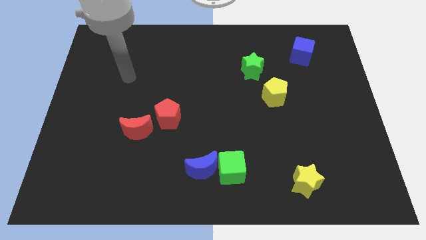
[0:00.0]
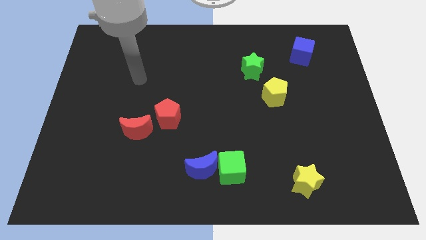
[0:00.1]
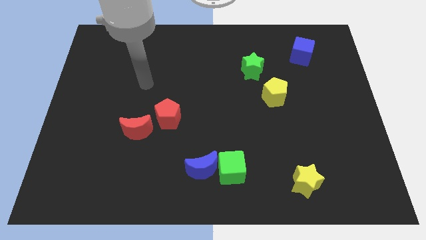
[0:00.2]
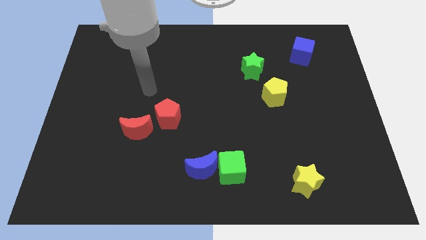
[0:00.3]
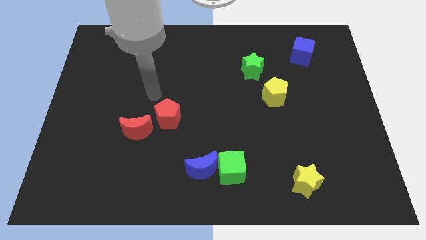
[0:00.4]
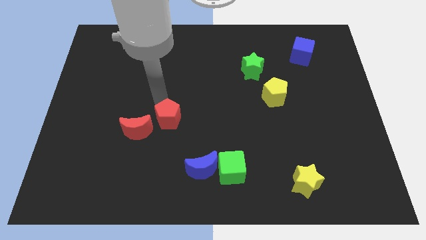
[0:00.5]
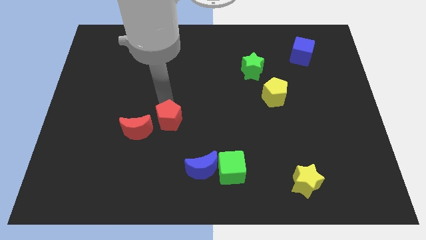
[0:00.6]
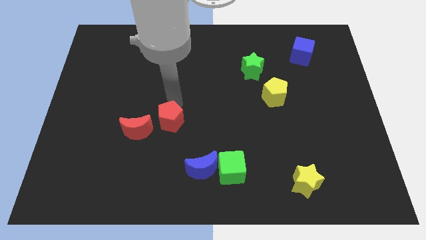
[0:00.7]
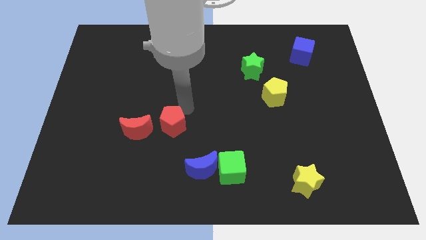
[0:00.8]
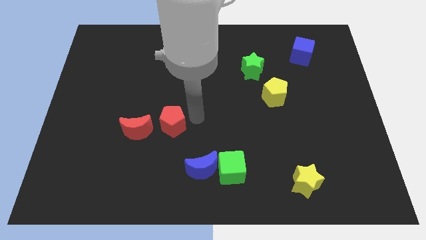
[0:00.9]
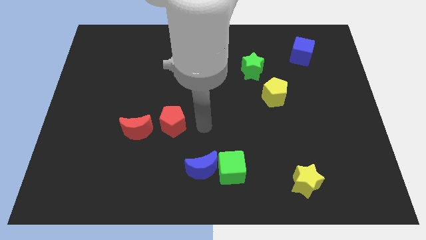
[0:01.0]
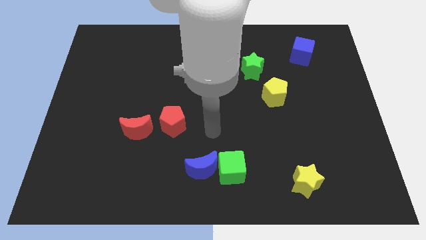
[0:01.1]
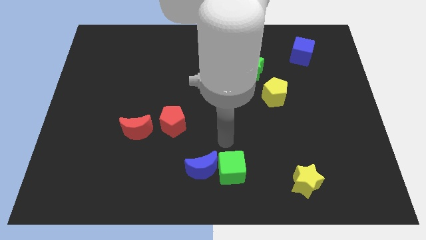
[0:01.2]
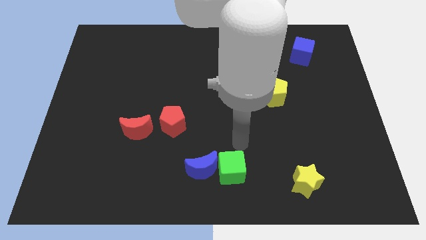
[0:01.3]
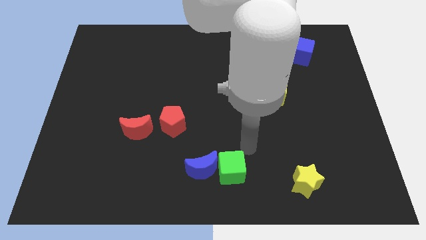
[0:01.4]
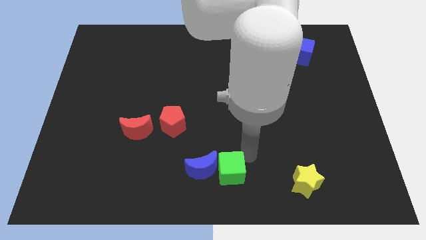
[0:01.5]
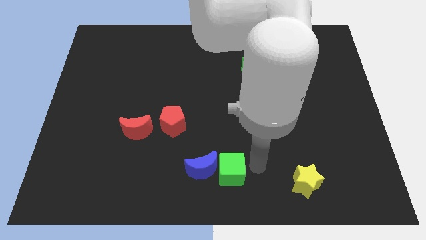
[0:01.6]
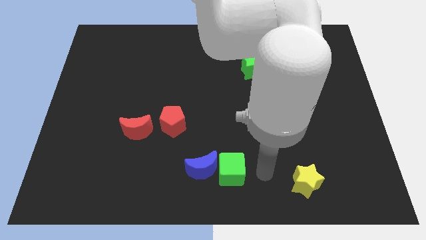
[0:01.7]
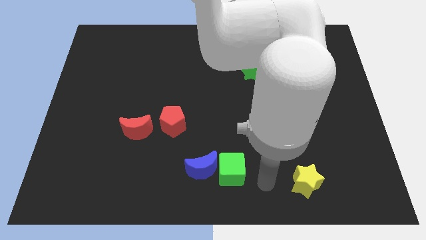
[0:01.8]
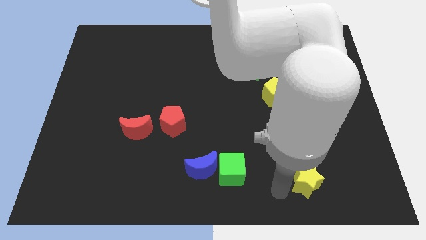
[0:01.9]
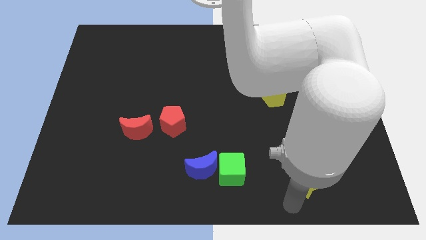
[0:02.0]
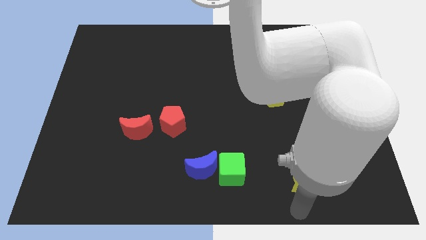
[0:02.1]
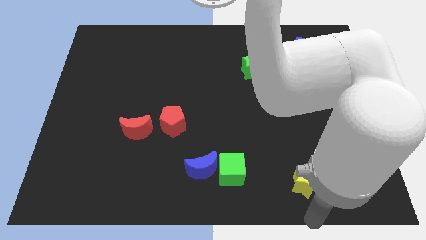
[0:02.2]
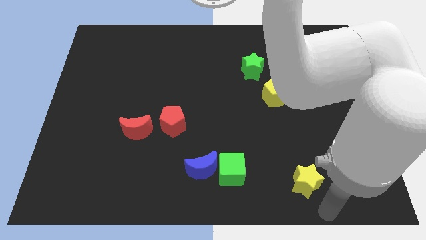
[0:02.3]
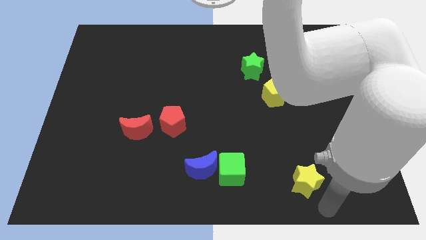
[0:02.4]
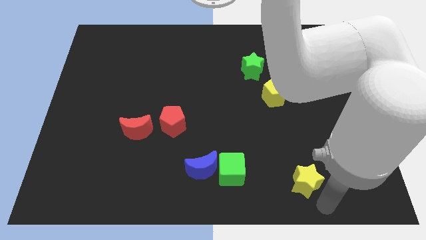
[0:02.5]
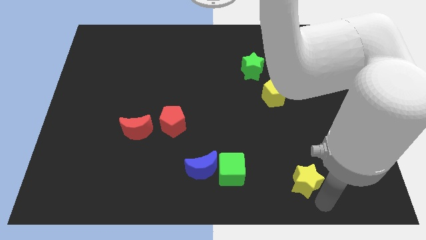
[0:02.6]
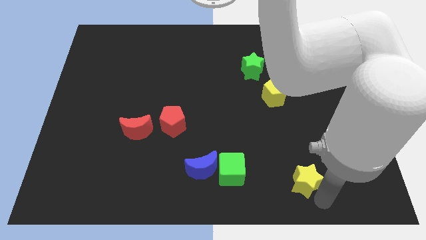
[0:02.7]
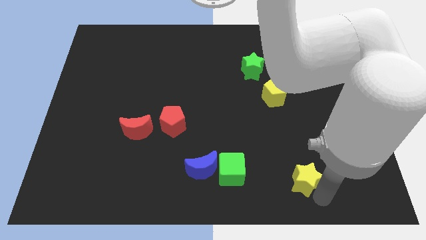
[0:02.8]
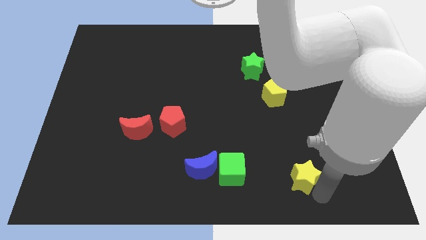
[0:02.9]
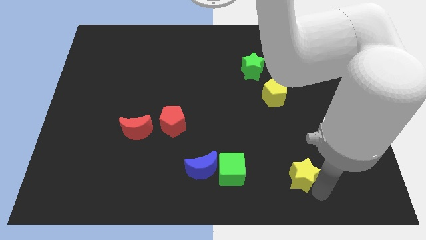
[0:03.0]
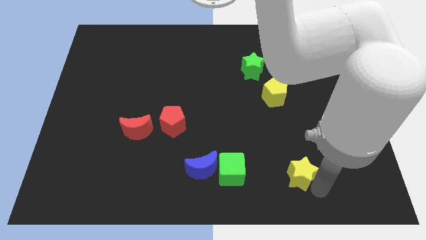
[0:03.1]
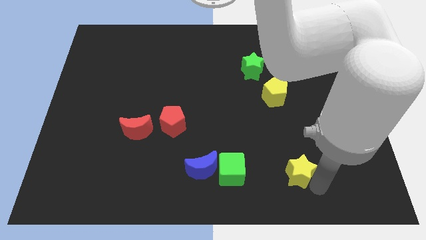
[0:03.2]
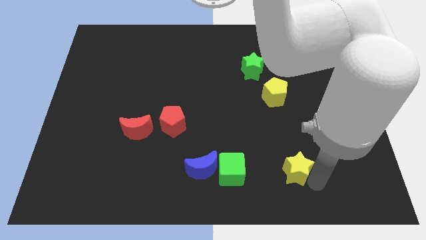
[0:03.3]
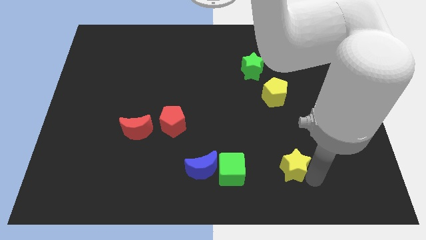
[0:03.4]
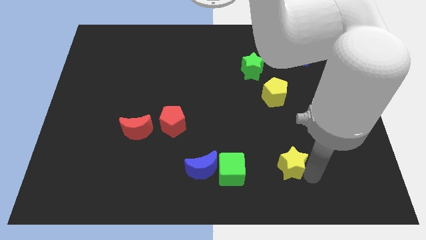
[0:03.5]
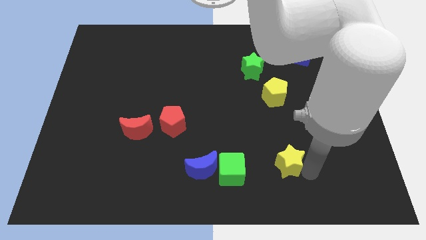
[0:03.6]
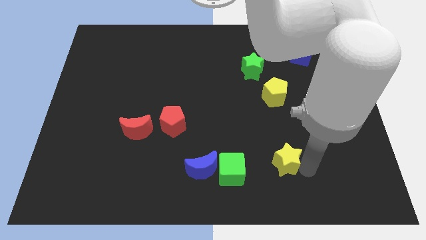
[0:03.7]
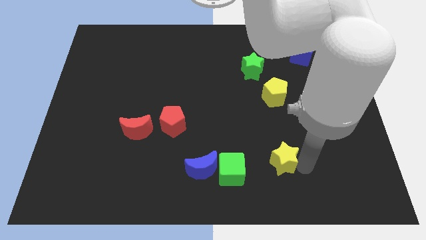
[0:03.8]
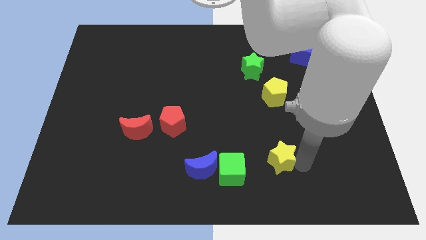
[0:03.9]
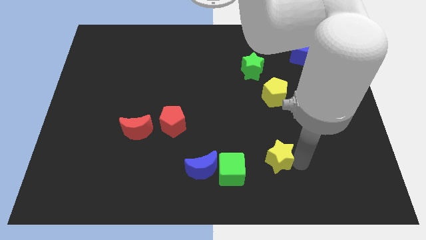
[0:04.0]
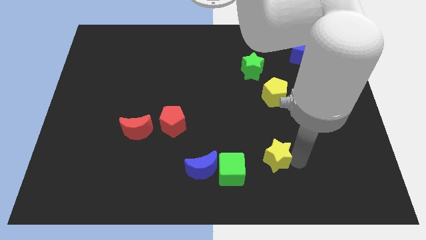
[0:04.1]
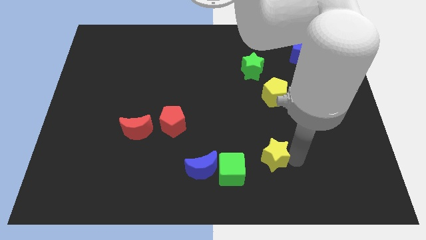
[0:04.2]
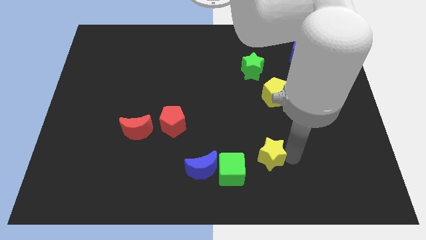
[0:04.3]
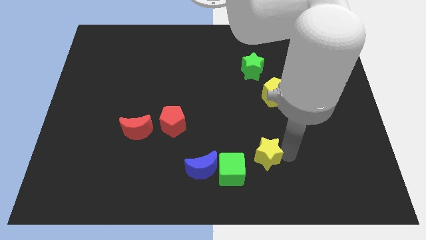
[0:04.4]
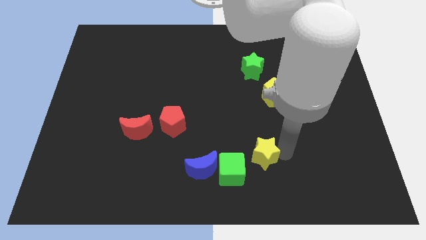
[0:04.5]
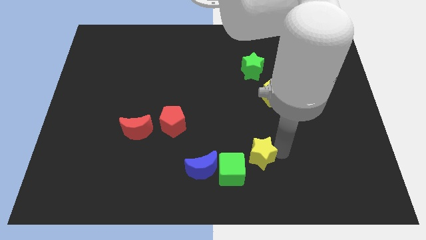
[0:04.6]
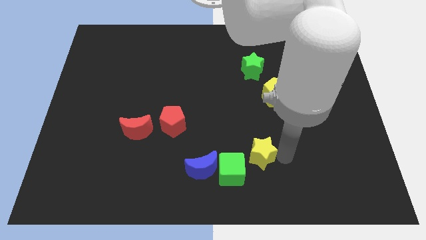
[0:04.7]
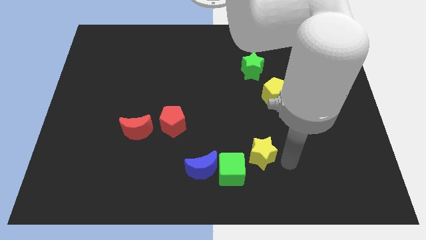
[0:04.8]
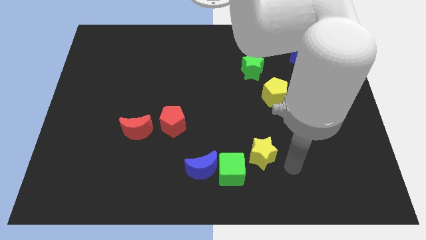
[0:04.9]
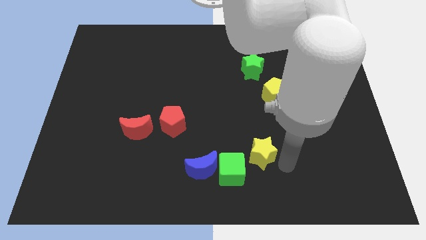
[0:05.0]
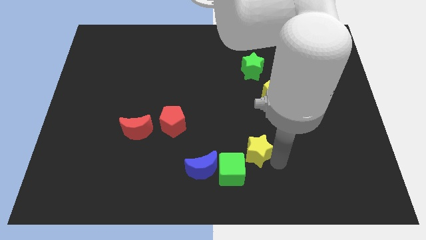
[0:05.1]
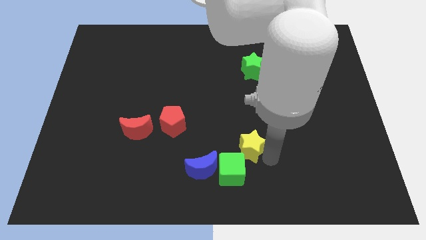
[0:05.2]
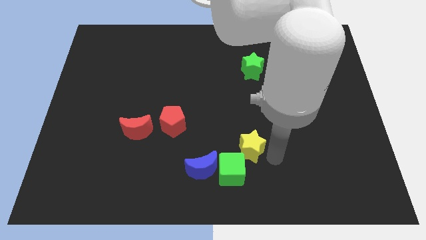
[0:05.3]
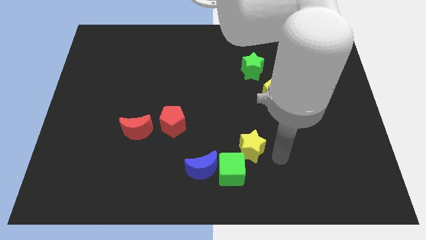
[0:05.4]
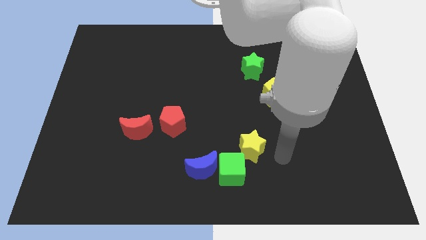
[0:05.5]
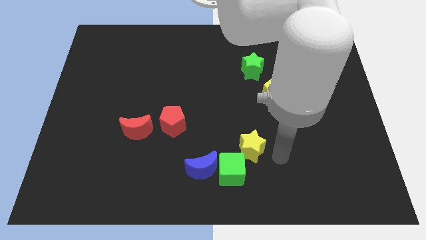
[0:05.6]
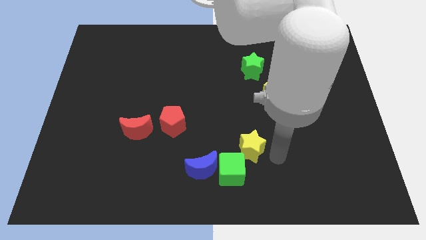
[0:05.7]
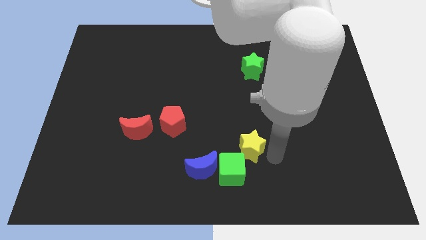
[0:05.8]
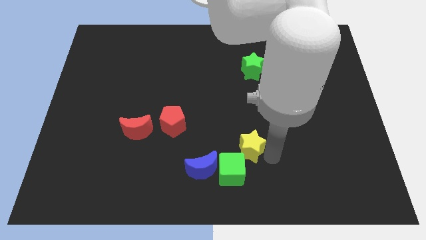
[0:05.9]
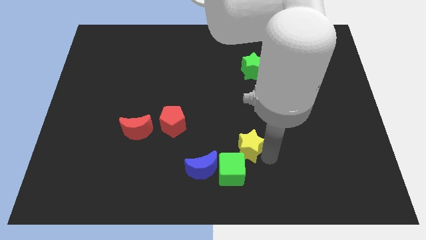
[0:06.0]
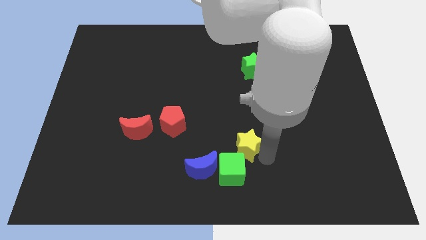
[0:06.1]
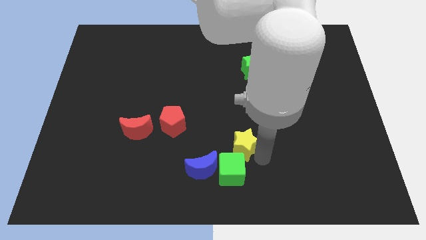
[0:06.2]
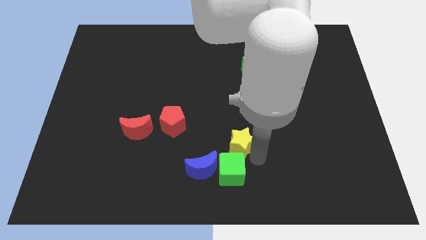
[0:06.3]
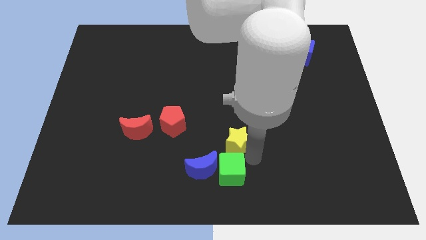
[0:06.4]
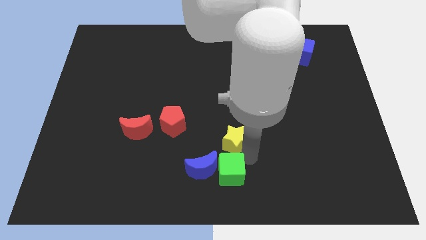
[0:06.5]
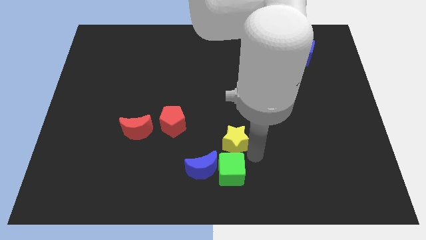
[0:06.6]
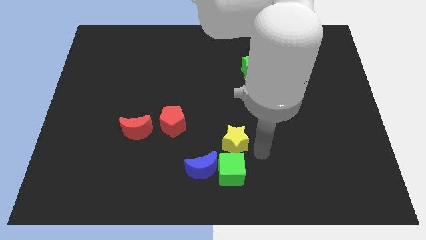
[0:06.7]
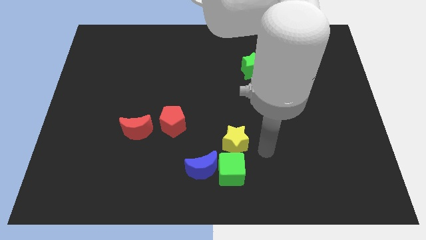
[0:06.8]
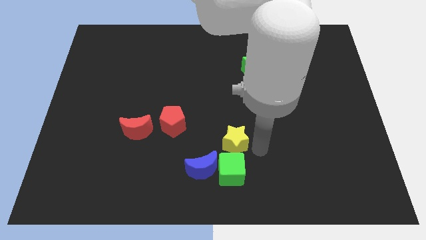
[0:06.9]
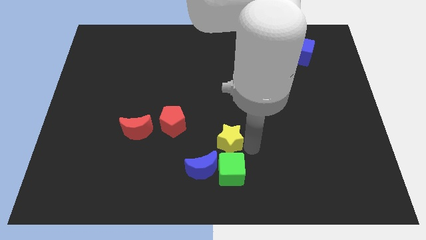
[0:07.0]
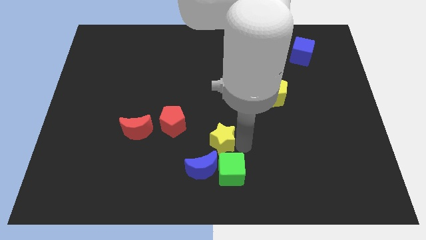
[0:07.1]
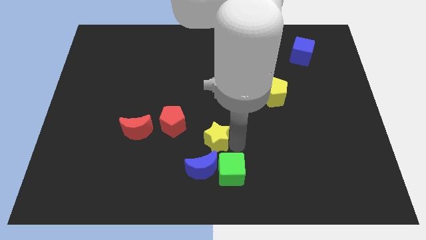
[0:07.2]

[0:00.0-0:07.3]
put the yellow star diagonally down and to the right of the red pentagon
